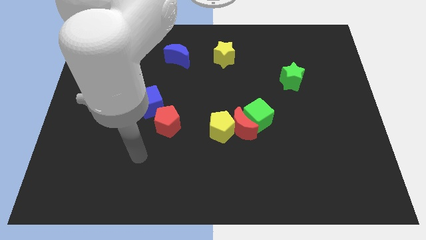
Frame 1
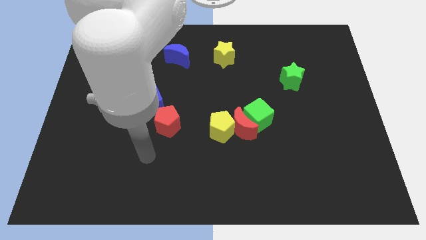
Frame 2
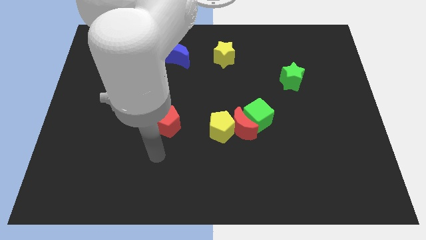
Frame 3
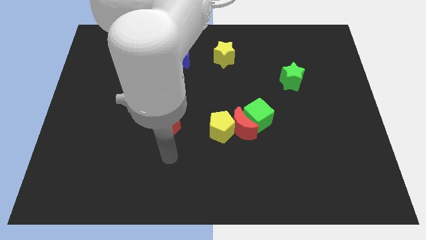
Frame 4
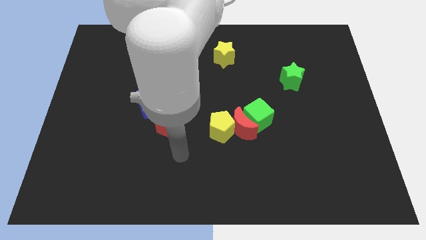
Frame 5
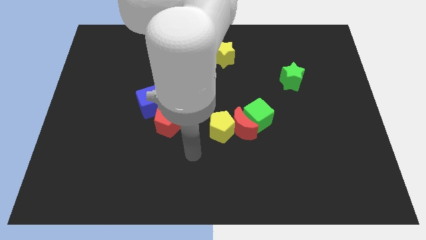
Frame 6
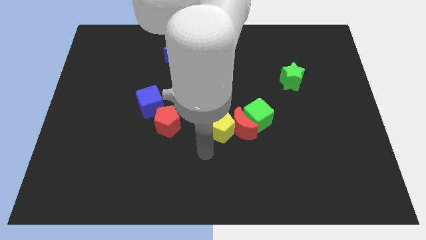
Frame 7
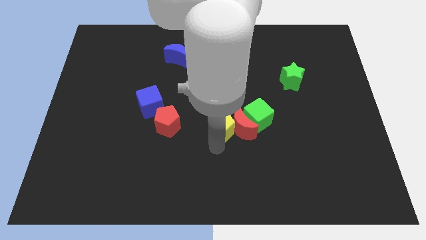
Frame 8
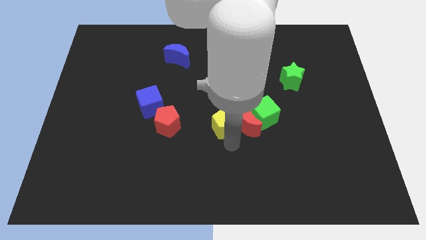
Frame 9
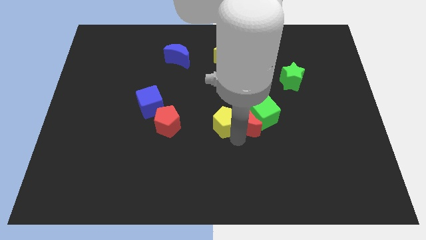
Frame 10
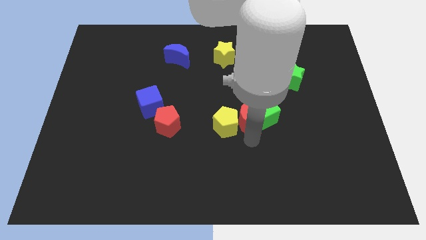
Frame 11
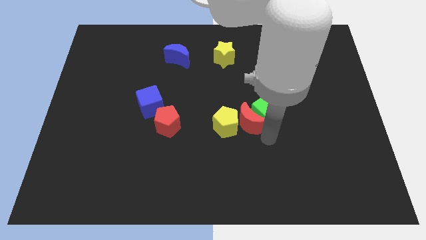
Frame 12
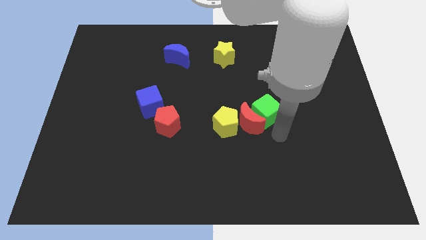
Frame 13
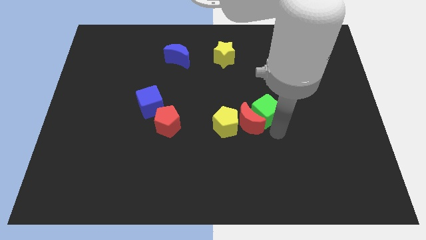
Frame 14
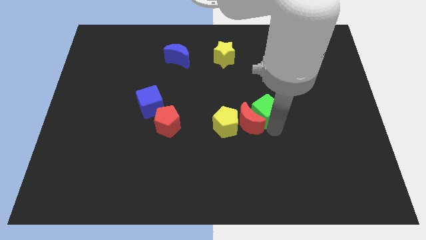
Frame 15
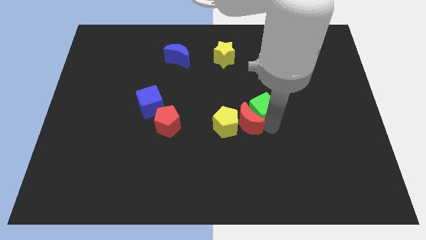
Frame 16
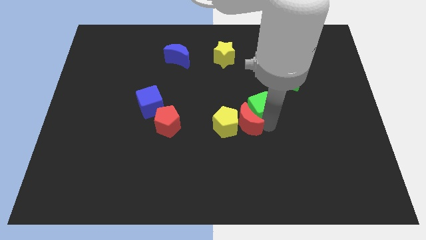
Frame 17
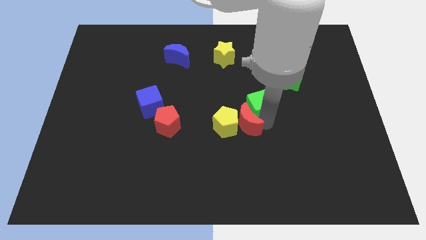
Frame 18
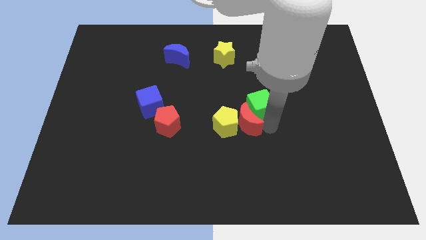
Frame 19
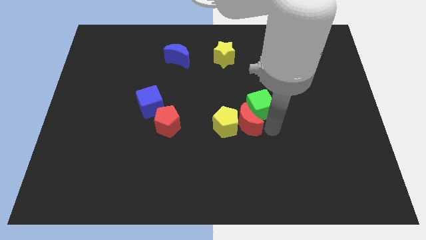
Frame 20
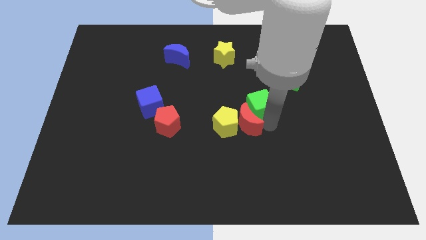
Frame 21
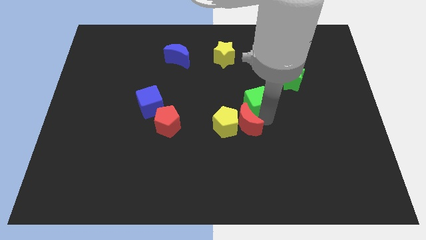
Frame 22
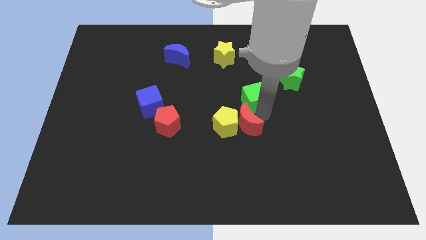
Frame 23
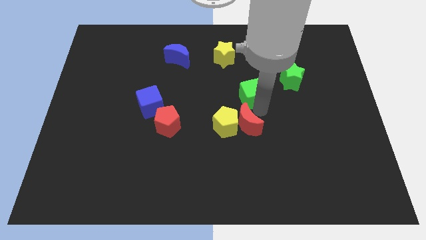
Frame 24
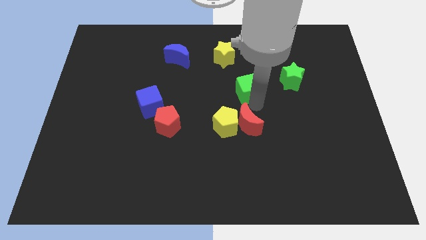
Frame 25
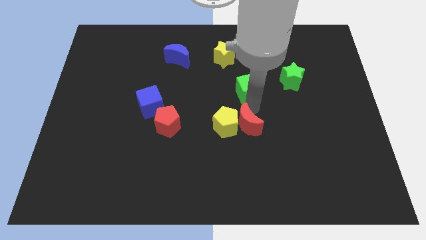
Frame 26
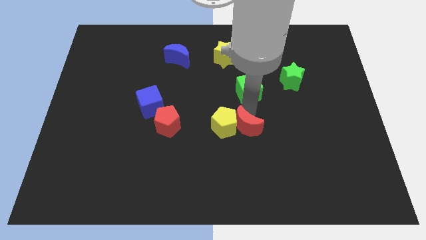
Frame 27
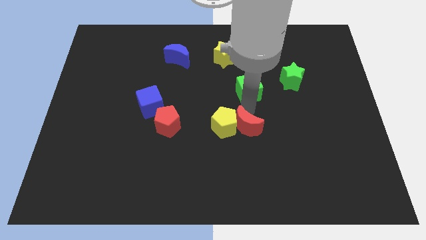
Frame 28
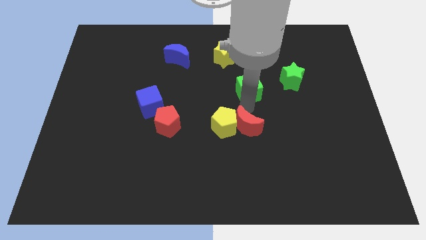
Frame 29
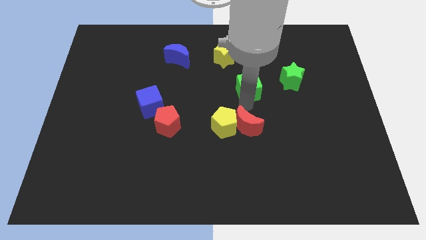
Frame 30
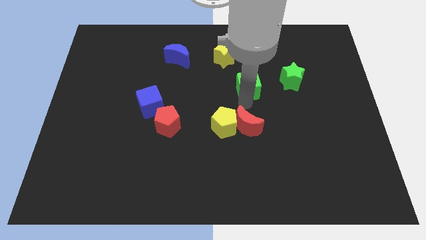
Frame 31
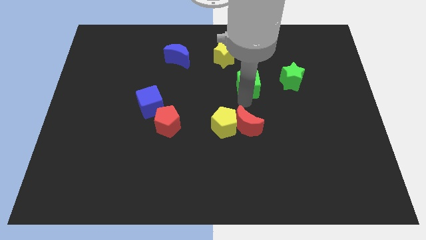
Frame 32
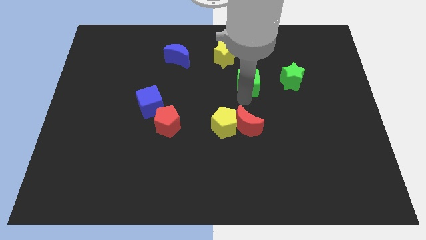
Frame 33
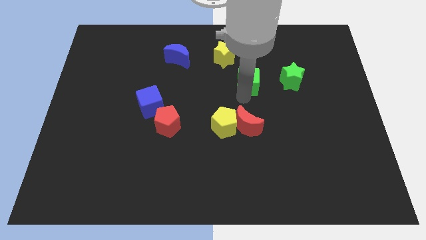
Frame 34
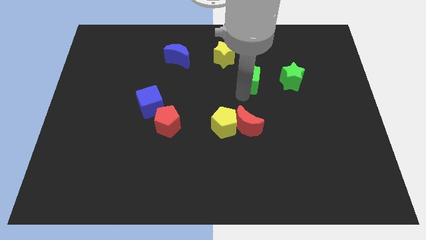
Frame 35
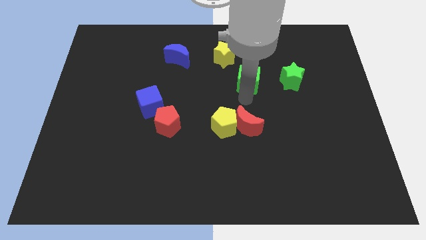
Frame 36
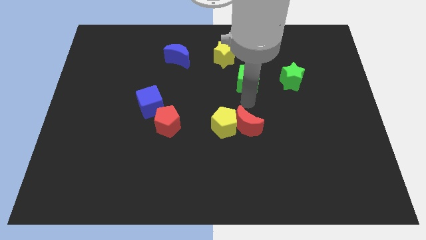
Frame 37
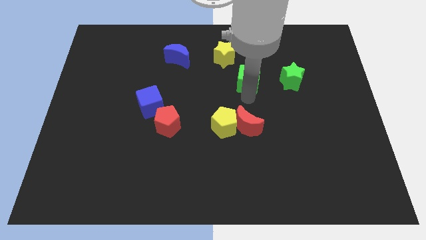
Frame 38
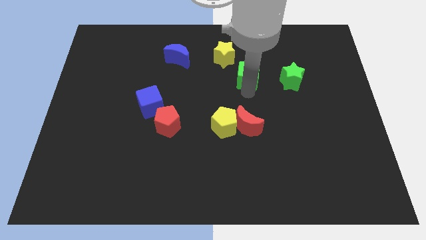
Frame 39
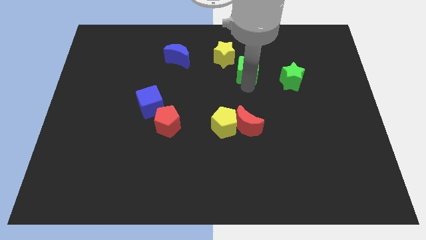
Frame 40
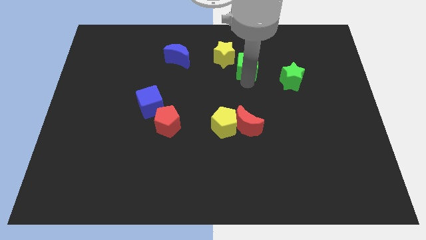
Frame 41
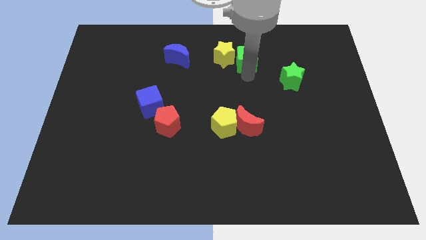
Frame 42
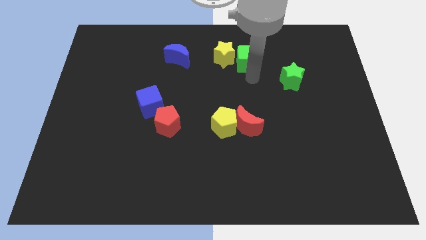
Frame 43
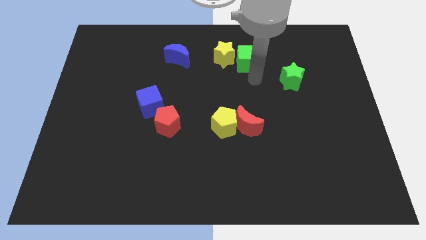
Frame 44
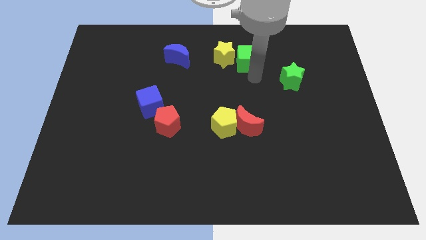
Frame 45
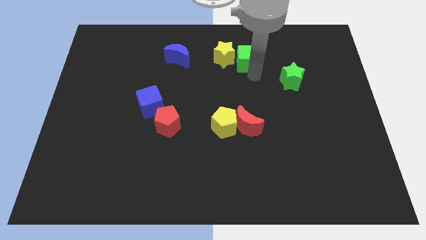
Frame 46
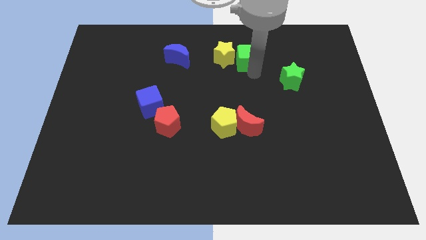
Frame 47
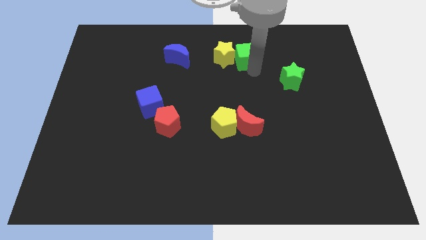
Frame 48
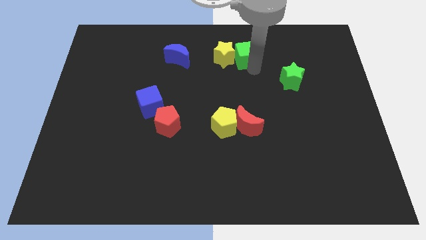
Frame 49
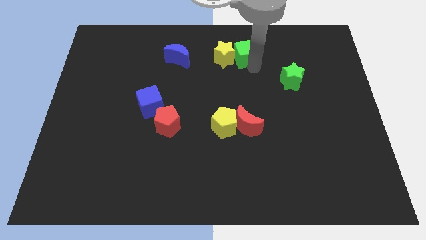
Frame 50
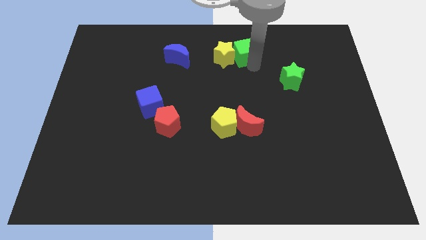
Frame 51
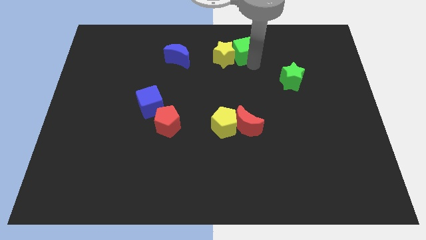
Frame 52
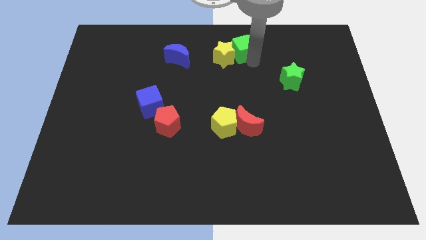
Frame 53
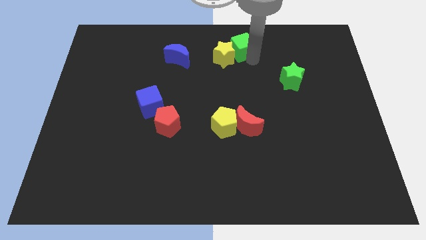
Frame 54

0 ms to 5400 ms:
put the green cube to the top side

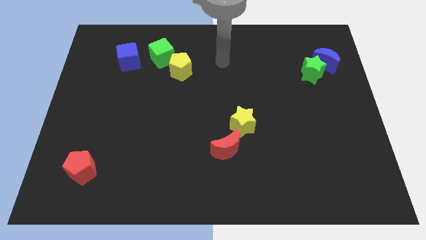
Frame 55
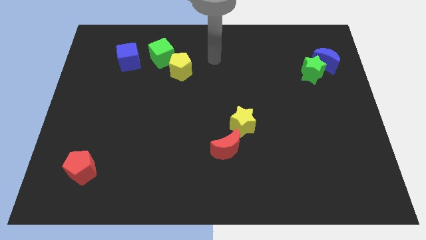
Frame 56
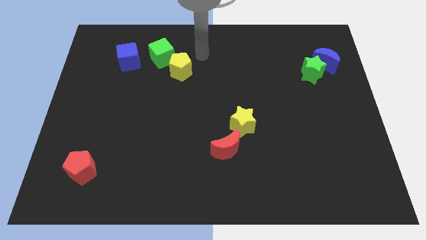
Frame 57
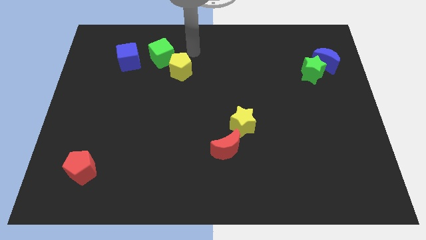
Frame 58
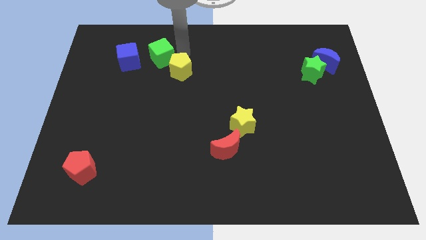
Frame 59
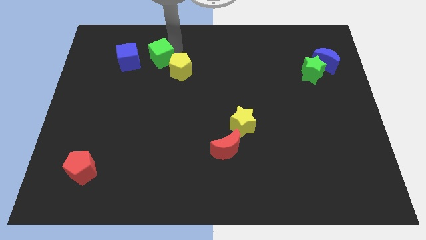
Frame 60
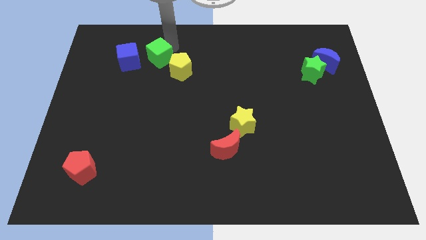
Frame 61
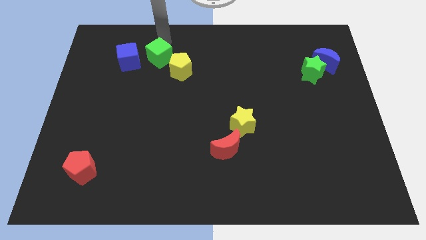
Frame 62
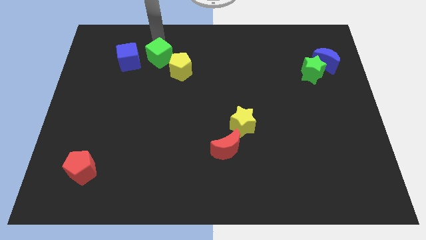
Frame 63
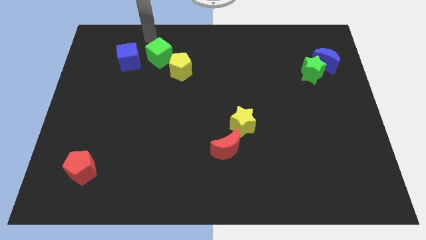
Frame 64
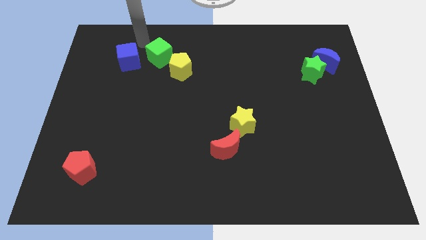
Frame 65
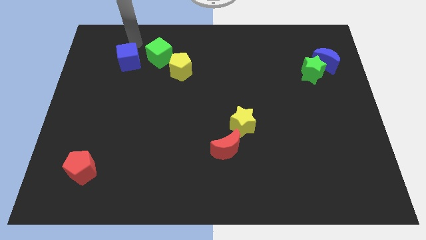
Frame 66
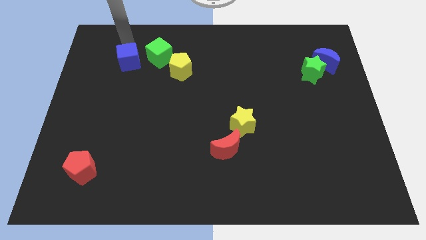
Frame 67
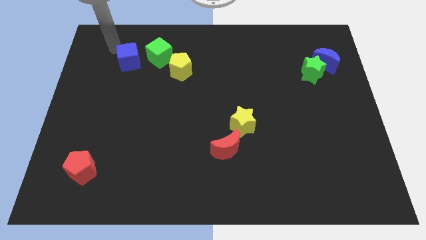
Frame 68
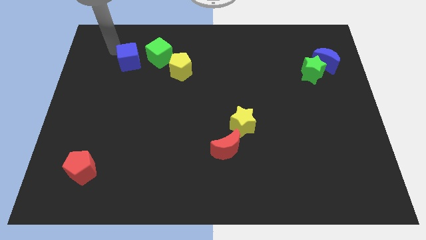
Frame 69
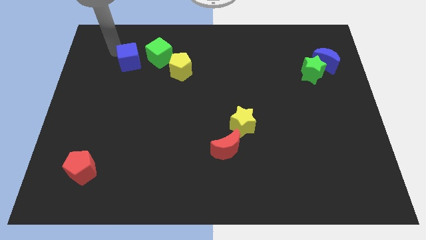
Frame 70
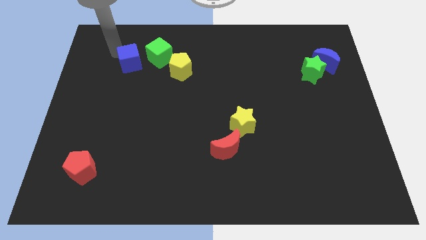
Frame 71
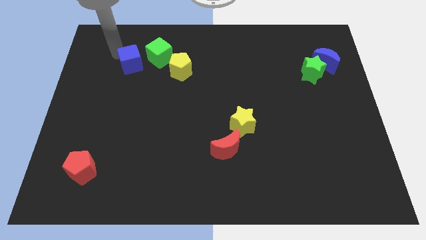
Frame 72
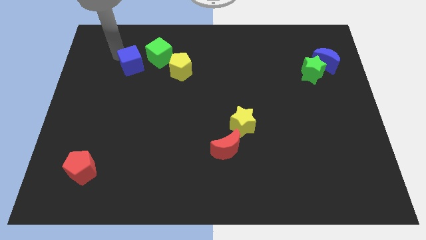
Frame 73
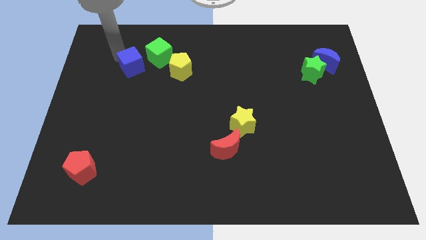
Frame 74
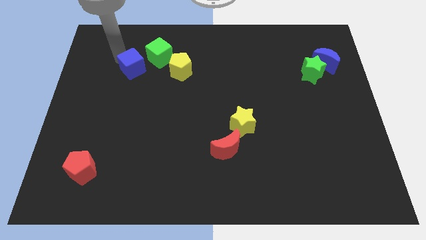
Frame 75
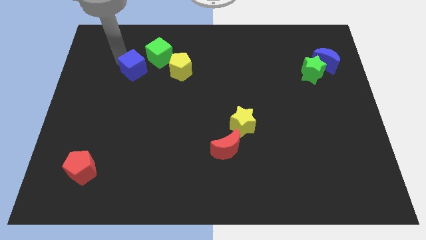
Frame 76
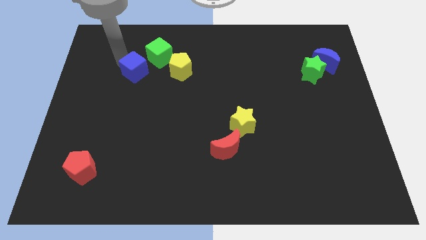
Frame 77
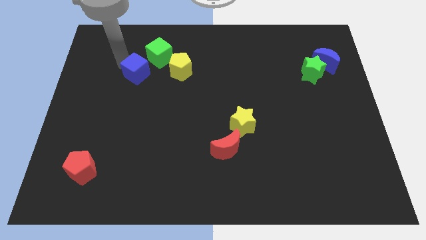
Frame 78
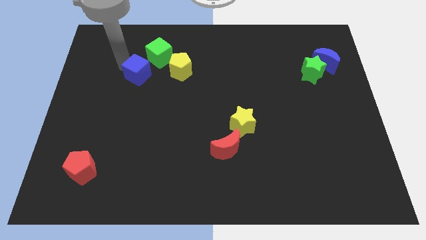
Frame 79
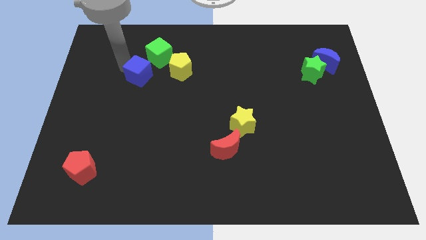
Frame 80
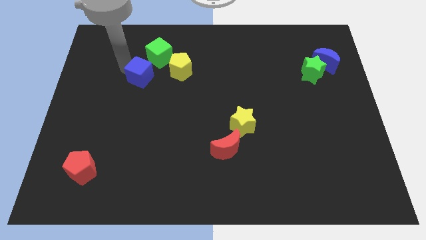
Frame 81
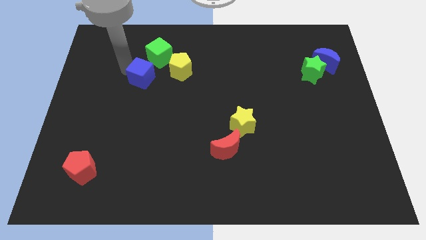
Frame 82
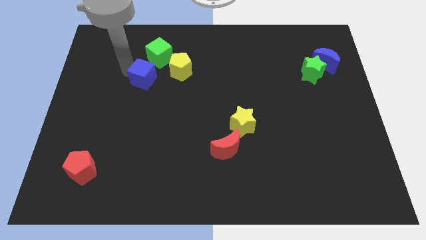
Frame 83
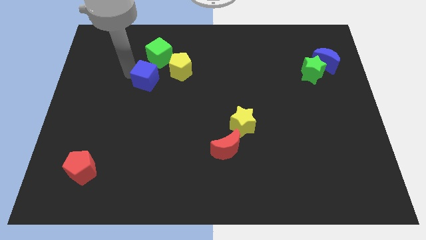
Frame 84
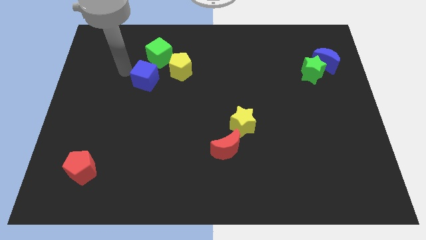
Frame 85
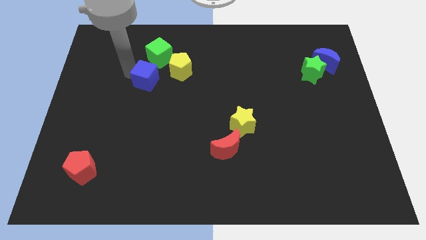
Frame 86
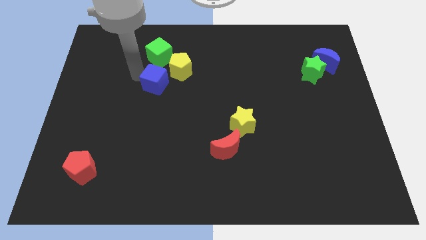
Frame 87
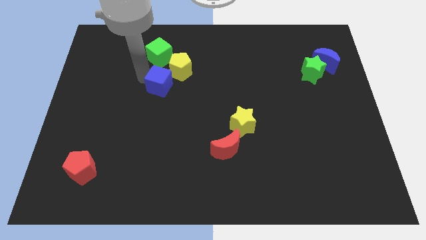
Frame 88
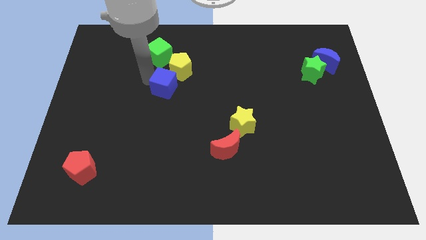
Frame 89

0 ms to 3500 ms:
slide the blue cube to the middle of the board
